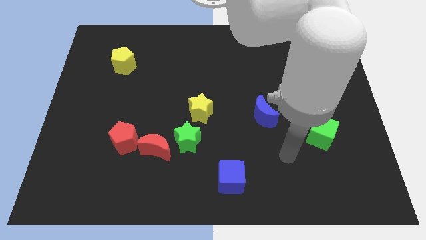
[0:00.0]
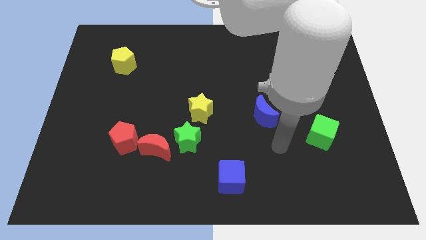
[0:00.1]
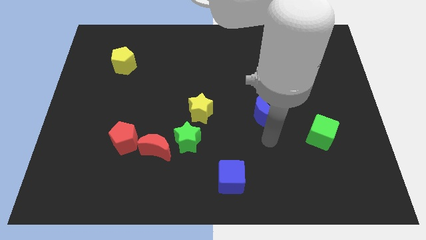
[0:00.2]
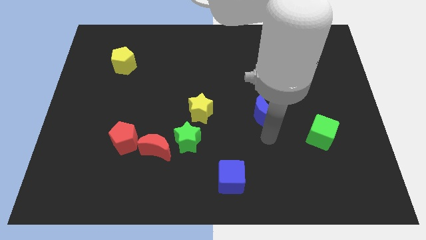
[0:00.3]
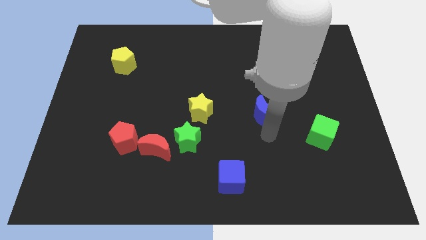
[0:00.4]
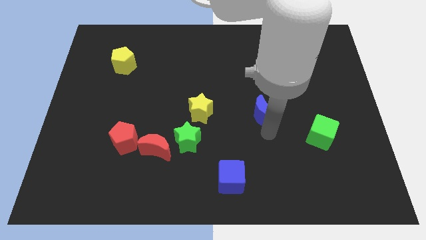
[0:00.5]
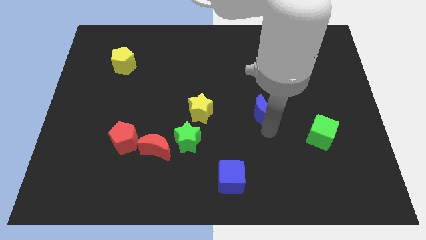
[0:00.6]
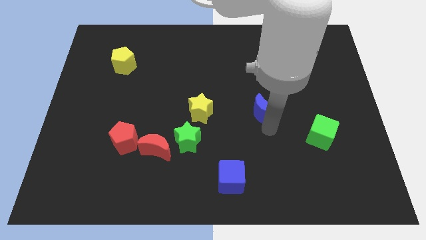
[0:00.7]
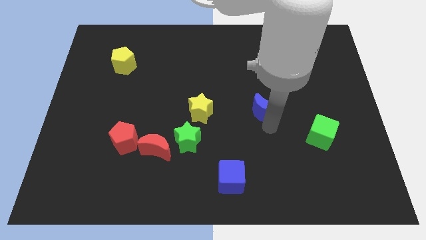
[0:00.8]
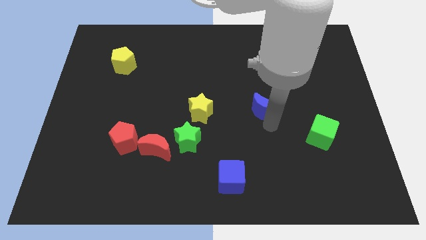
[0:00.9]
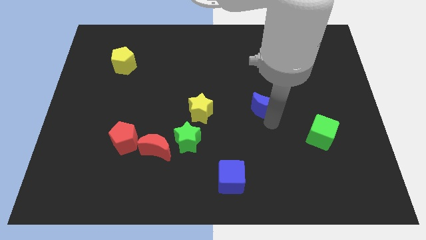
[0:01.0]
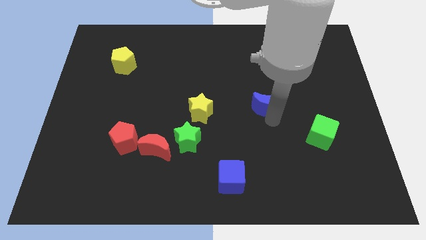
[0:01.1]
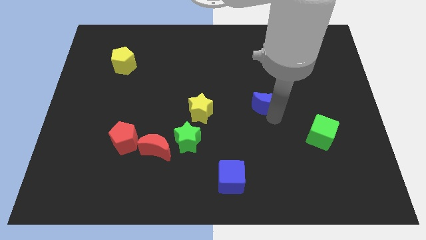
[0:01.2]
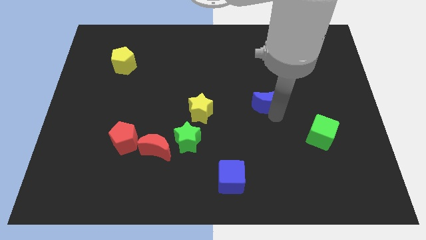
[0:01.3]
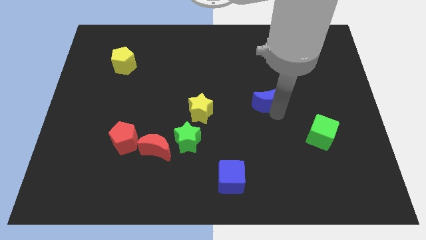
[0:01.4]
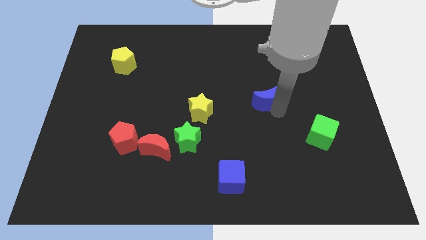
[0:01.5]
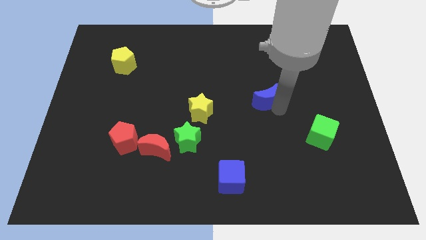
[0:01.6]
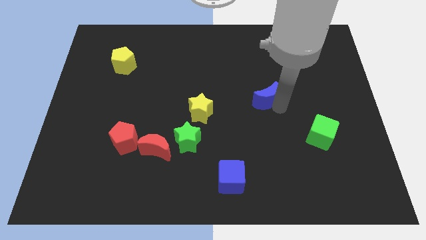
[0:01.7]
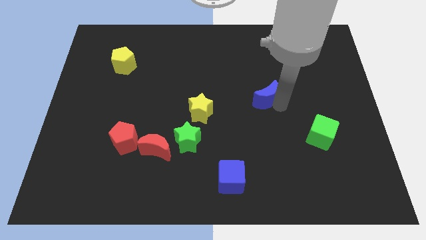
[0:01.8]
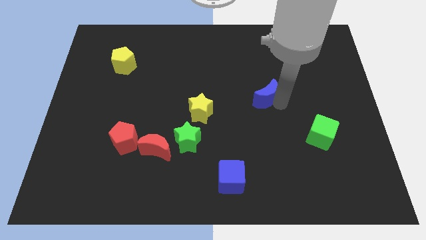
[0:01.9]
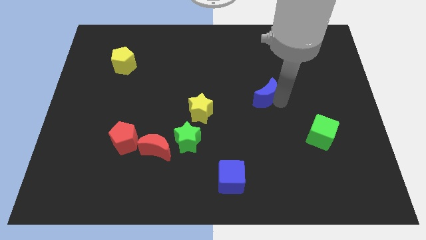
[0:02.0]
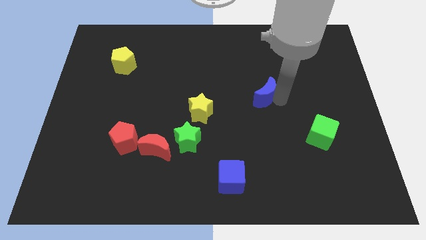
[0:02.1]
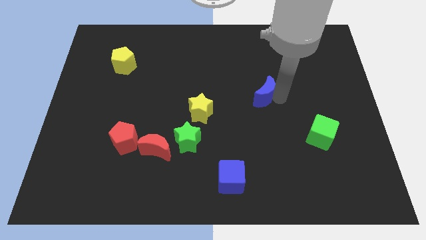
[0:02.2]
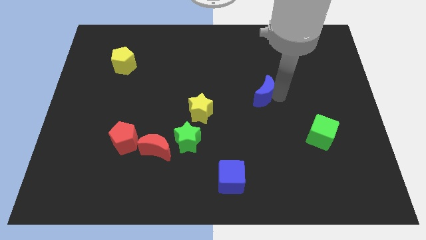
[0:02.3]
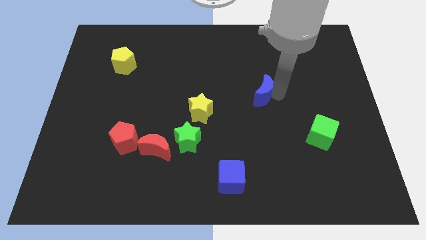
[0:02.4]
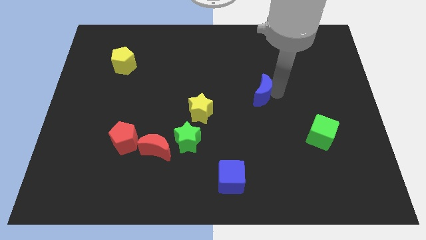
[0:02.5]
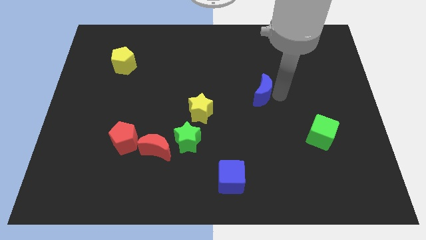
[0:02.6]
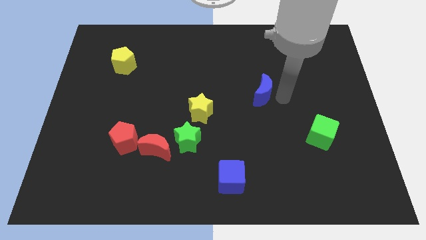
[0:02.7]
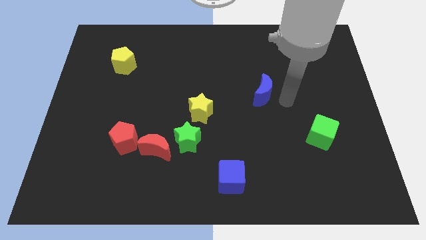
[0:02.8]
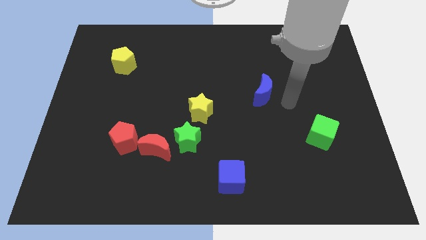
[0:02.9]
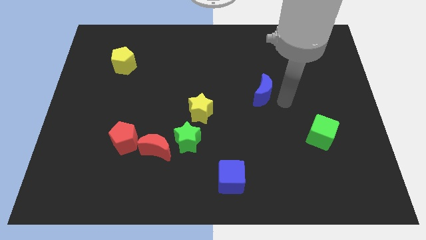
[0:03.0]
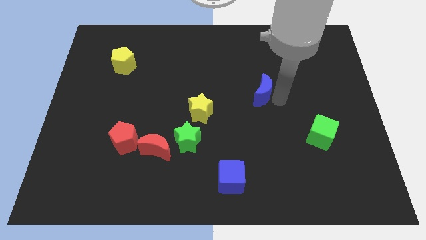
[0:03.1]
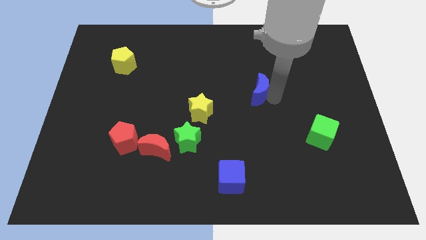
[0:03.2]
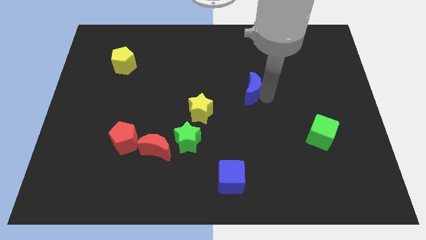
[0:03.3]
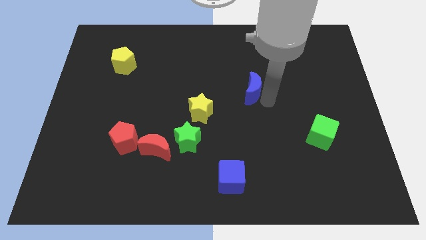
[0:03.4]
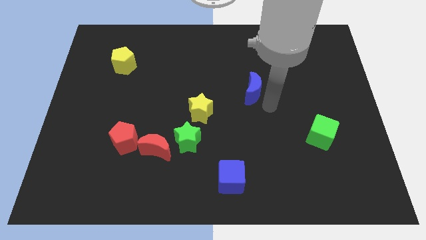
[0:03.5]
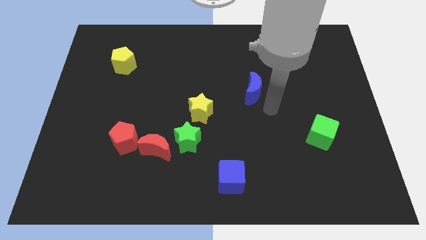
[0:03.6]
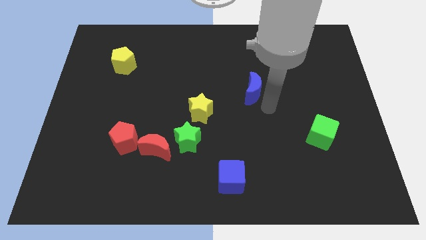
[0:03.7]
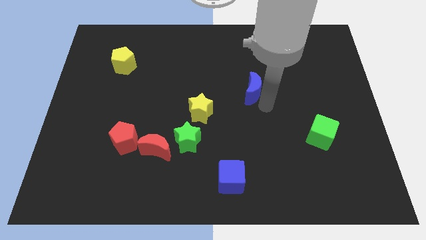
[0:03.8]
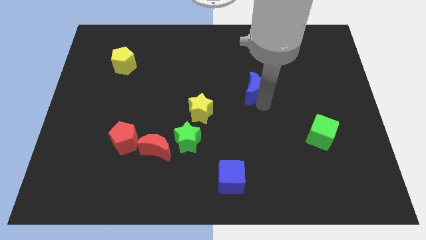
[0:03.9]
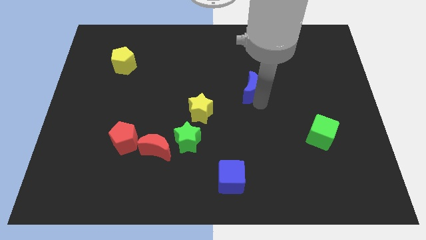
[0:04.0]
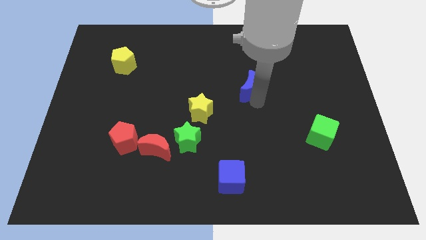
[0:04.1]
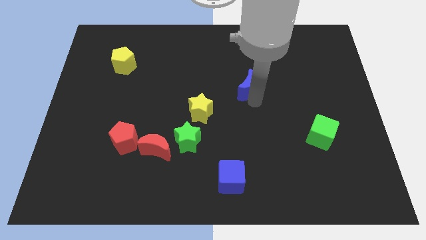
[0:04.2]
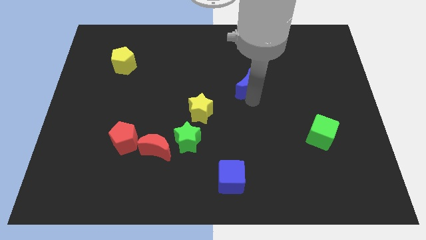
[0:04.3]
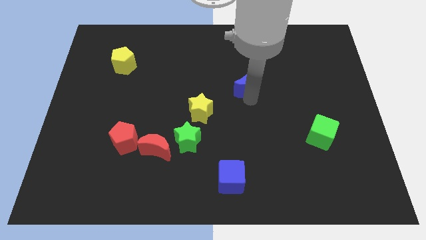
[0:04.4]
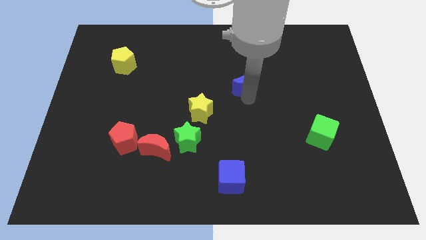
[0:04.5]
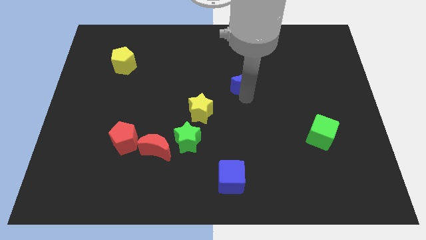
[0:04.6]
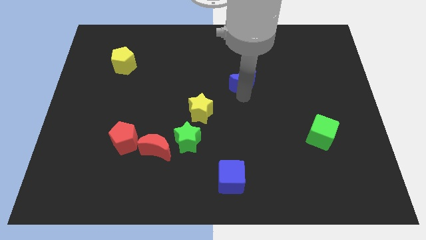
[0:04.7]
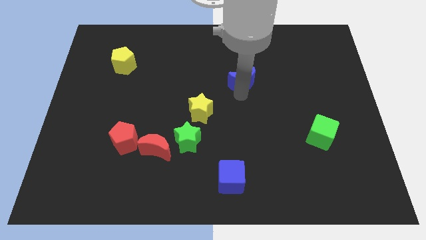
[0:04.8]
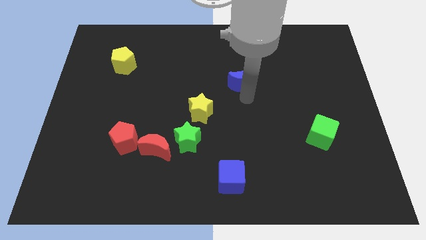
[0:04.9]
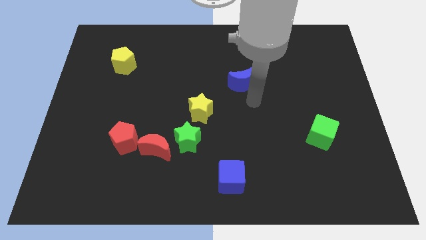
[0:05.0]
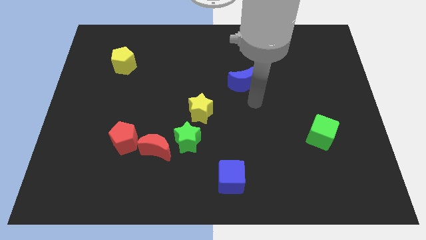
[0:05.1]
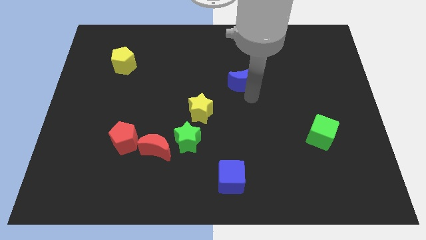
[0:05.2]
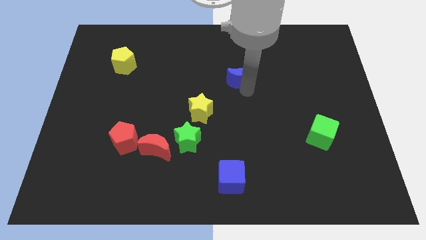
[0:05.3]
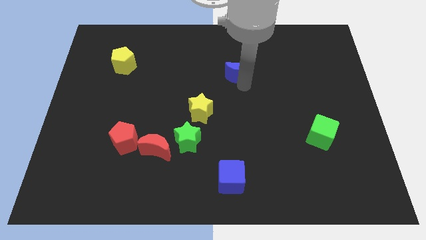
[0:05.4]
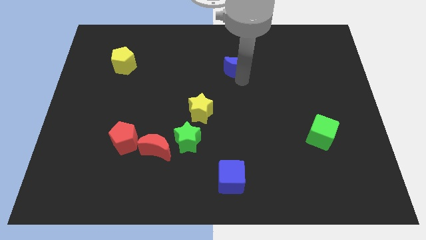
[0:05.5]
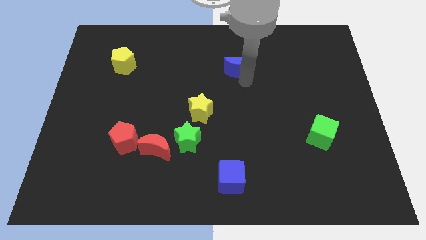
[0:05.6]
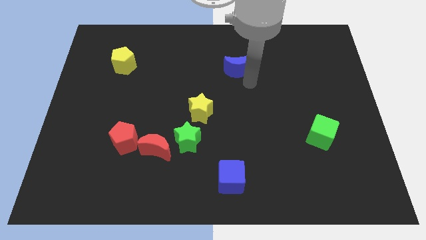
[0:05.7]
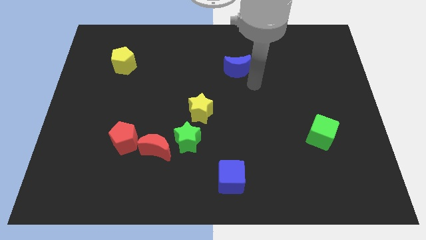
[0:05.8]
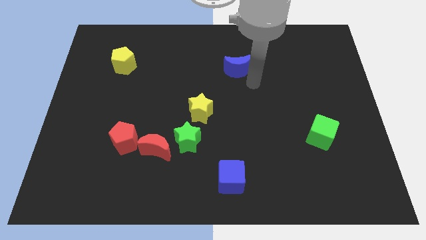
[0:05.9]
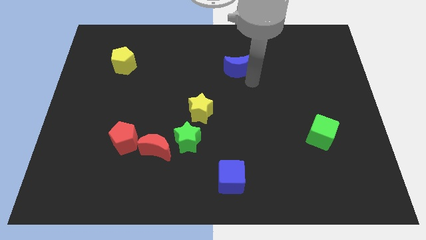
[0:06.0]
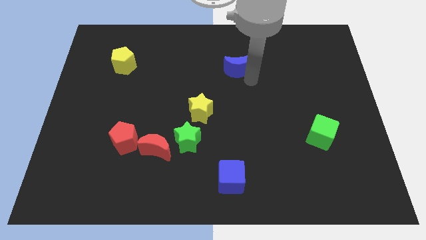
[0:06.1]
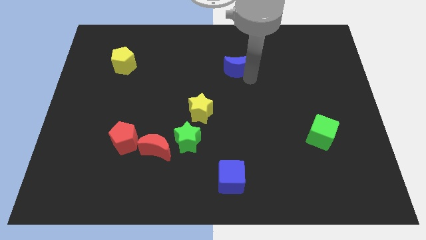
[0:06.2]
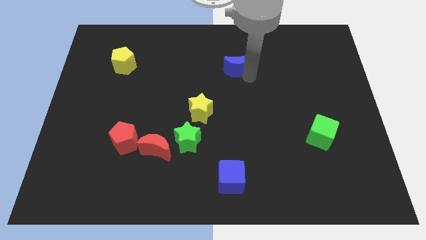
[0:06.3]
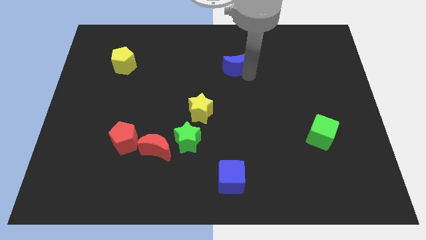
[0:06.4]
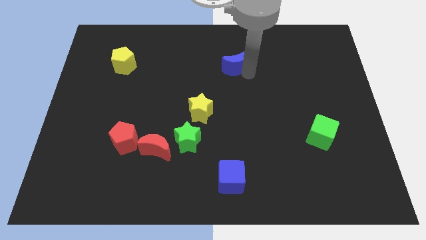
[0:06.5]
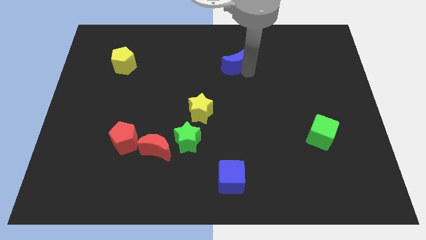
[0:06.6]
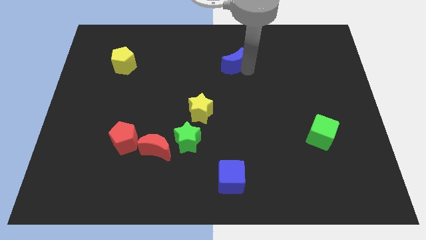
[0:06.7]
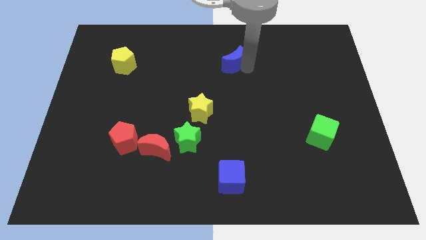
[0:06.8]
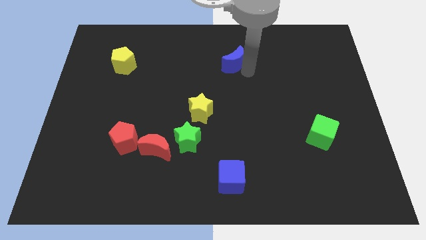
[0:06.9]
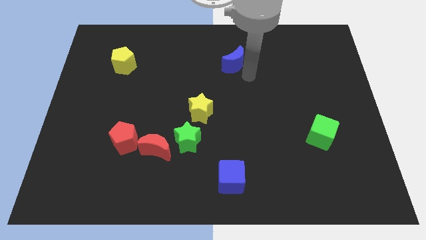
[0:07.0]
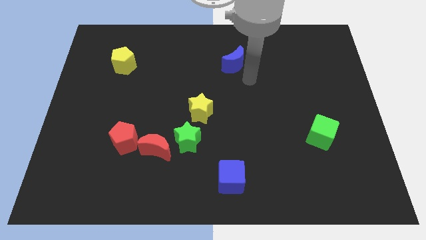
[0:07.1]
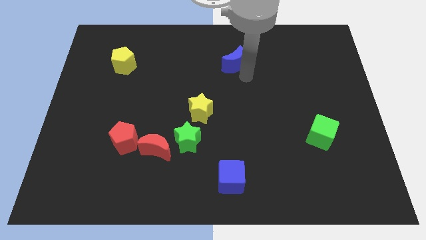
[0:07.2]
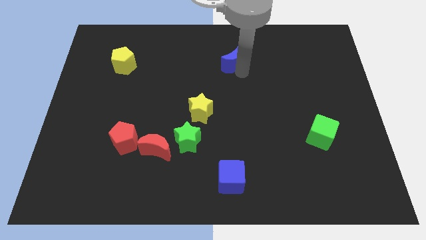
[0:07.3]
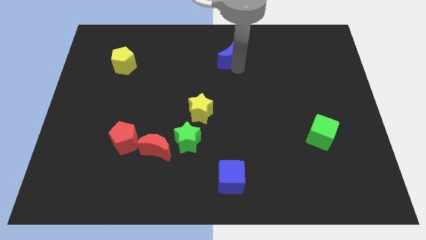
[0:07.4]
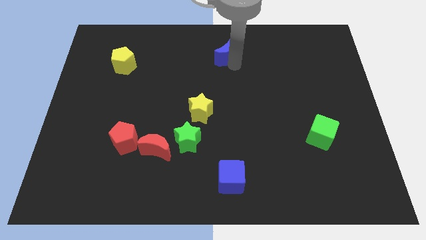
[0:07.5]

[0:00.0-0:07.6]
put the blue moon to the top
